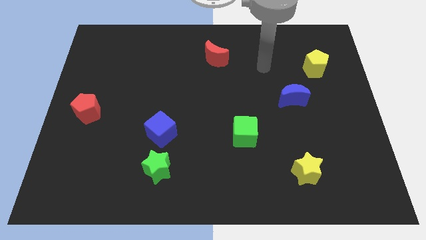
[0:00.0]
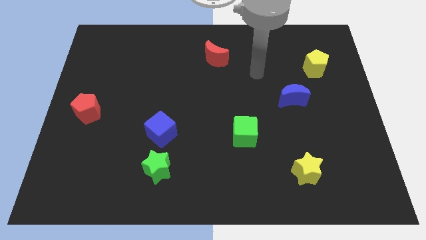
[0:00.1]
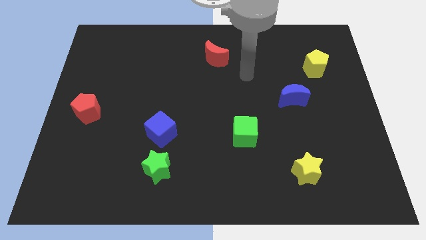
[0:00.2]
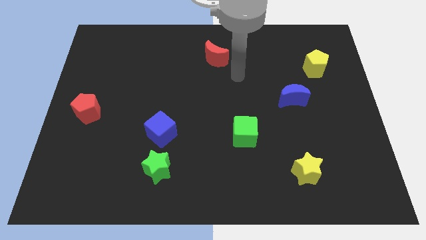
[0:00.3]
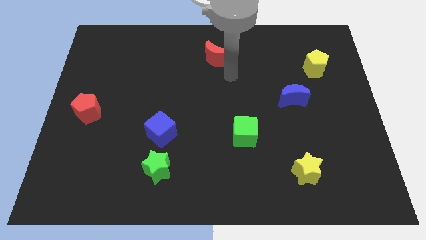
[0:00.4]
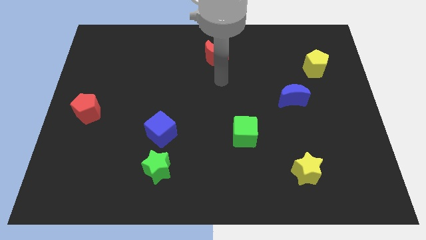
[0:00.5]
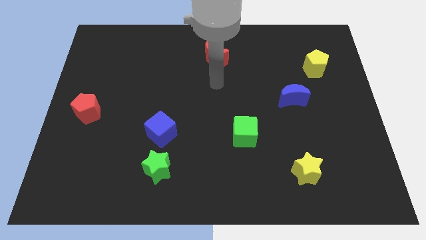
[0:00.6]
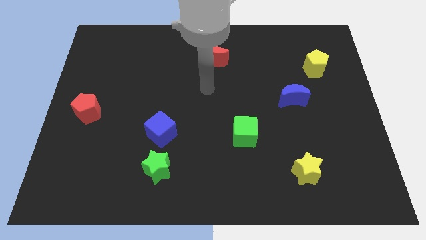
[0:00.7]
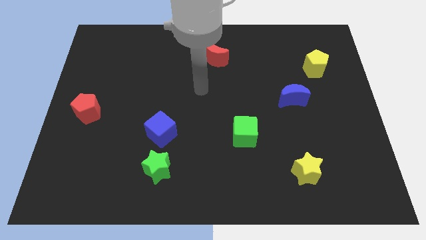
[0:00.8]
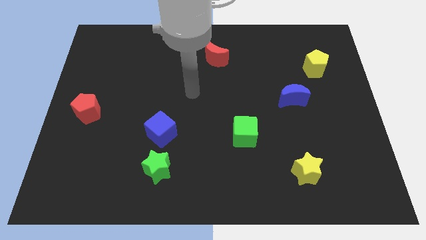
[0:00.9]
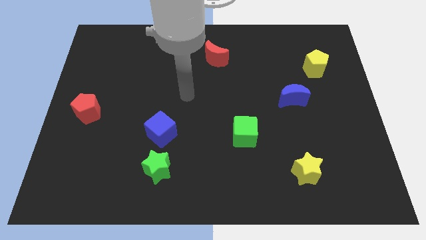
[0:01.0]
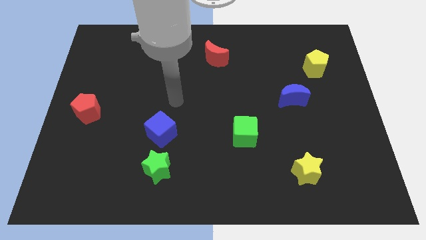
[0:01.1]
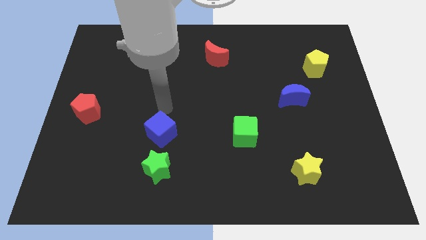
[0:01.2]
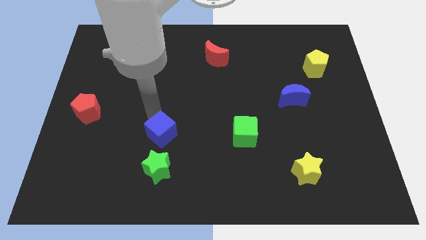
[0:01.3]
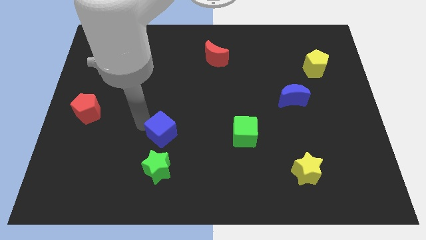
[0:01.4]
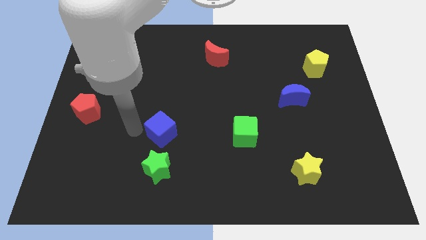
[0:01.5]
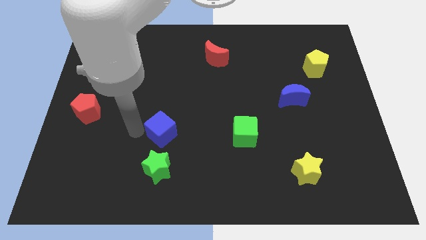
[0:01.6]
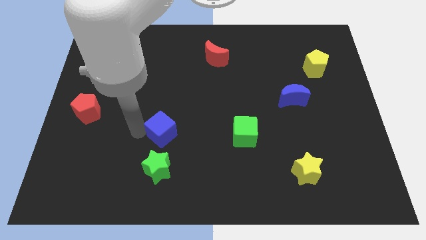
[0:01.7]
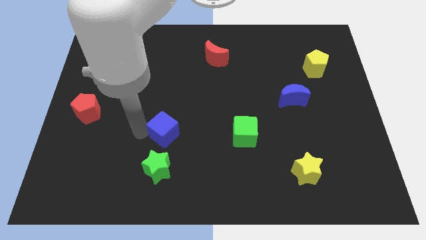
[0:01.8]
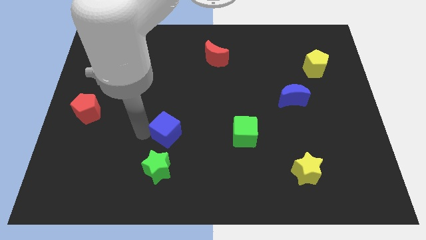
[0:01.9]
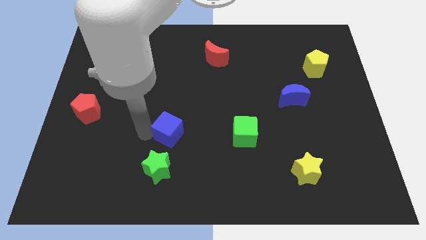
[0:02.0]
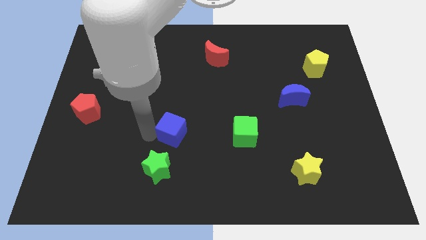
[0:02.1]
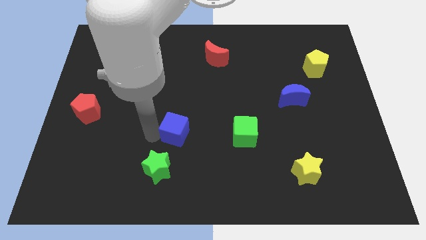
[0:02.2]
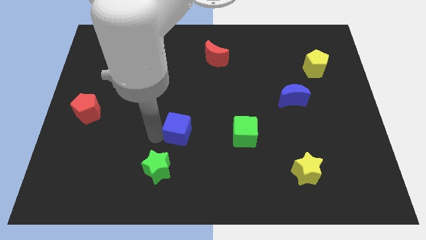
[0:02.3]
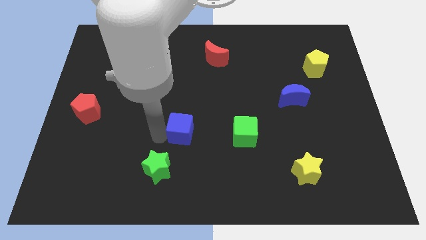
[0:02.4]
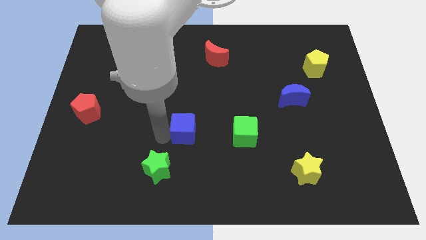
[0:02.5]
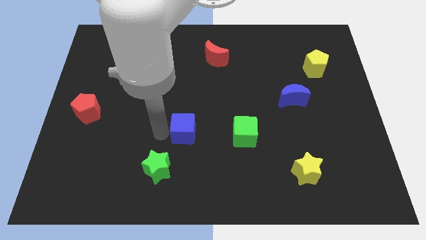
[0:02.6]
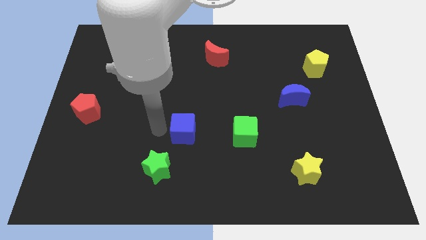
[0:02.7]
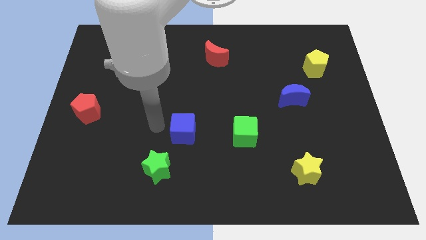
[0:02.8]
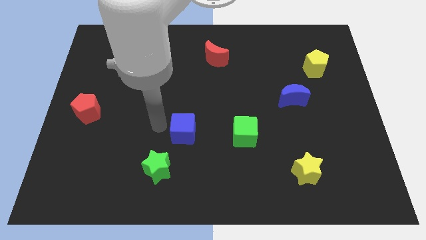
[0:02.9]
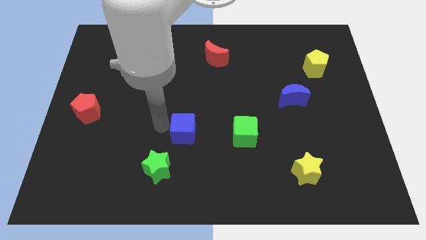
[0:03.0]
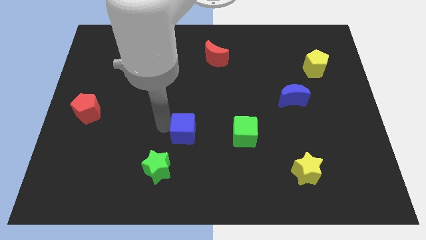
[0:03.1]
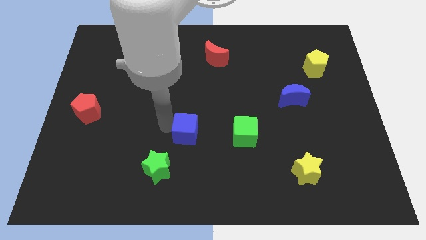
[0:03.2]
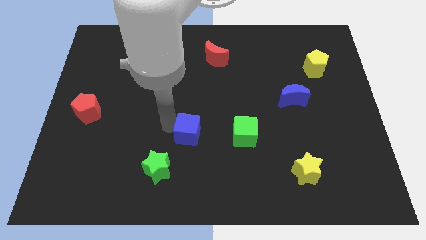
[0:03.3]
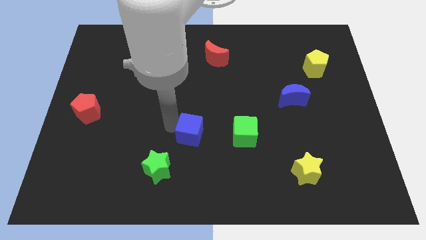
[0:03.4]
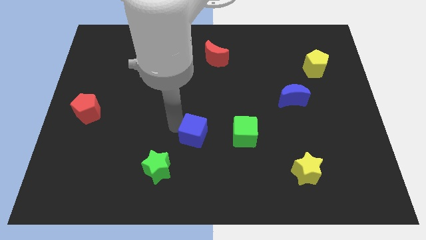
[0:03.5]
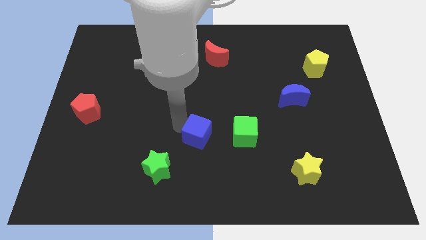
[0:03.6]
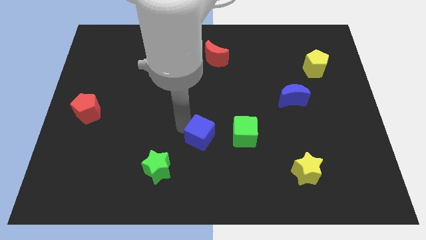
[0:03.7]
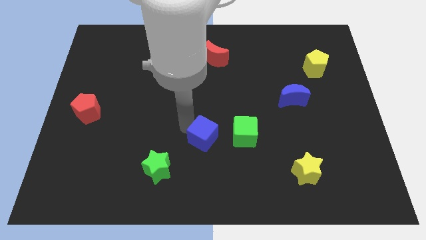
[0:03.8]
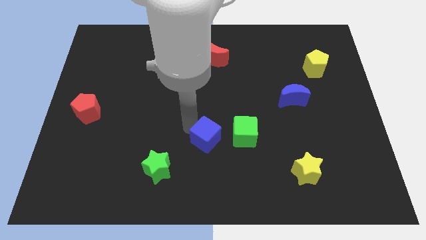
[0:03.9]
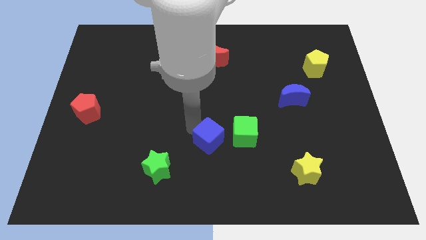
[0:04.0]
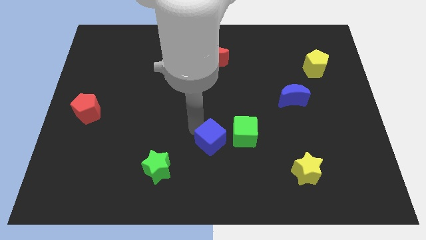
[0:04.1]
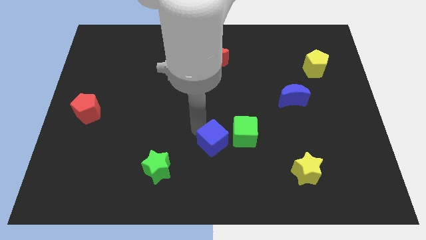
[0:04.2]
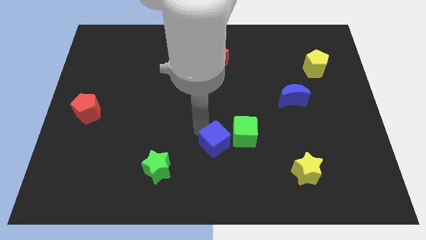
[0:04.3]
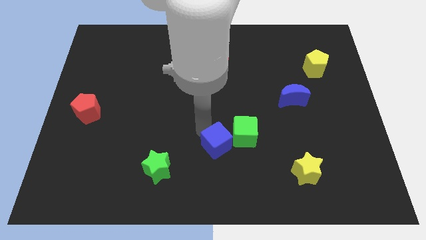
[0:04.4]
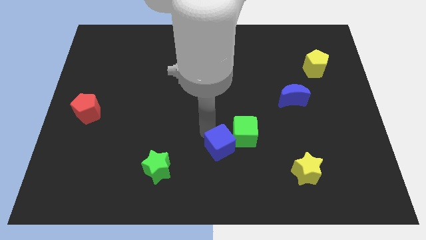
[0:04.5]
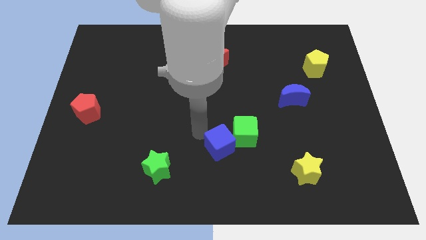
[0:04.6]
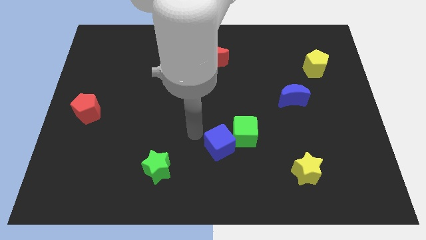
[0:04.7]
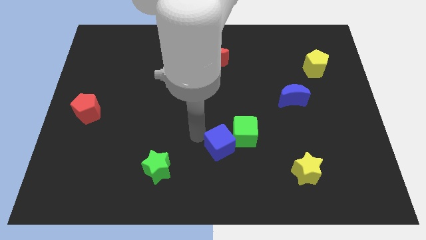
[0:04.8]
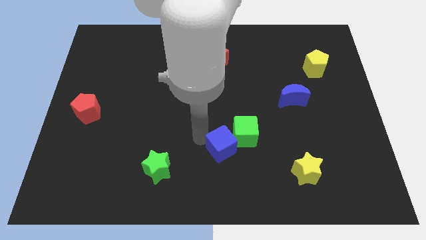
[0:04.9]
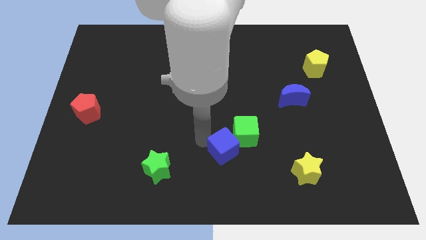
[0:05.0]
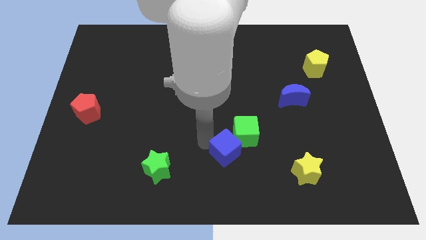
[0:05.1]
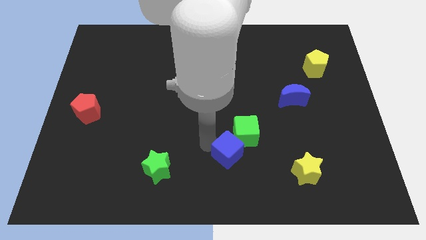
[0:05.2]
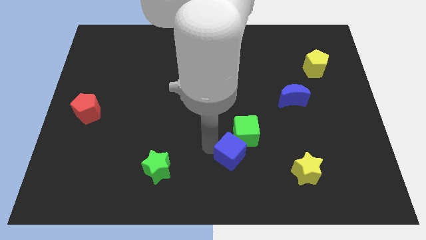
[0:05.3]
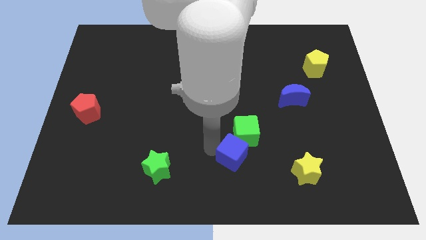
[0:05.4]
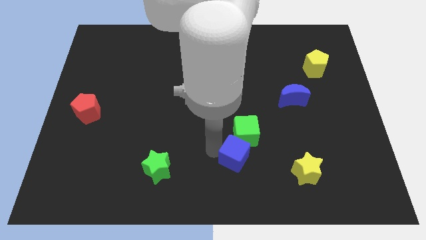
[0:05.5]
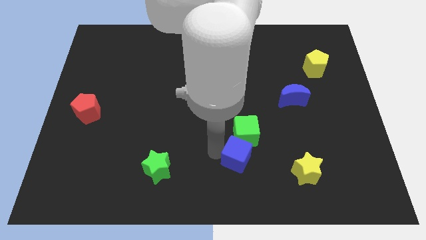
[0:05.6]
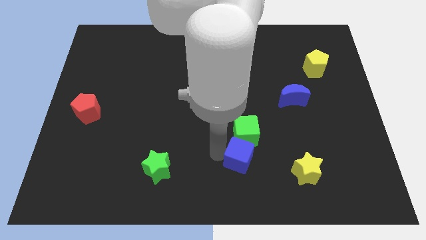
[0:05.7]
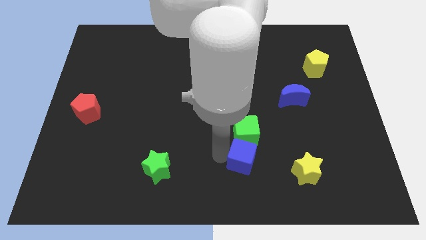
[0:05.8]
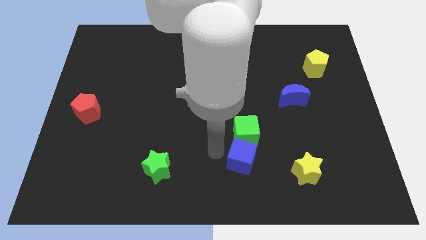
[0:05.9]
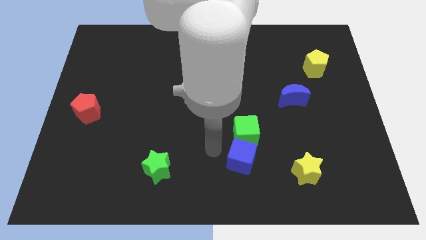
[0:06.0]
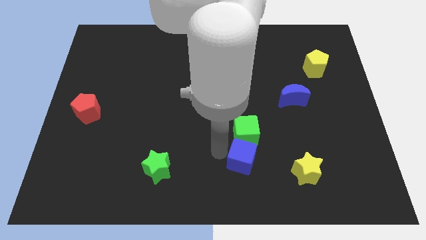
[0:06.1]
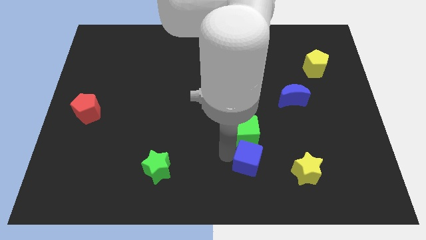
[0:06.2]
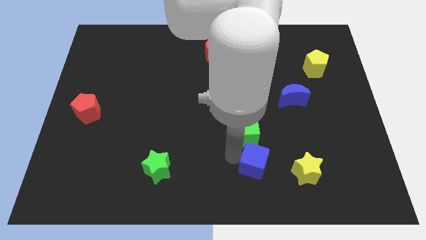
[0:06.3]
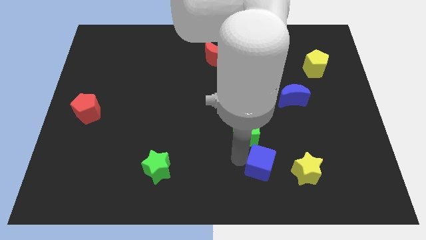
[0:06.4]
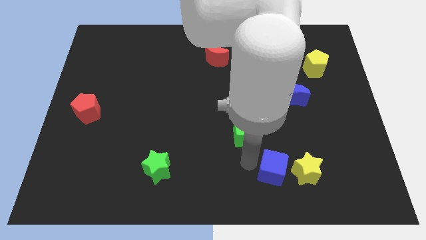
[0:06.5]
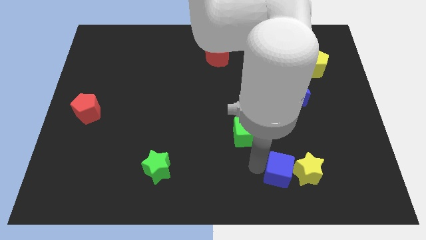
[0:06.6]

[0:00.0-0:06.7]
push the blue cube next to the yellow star

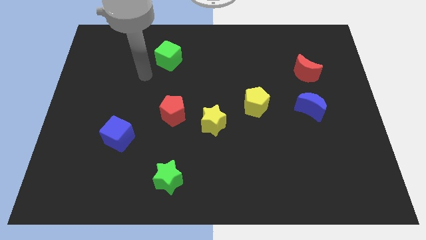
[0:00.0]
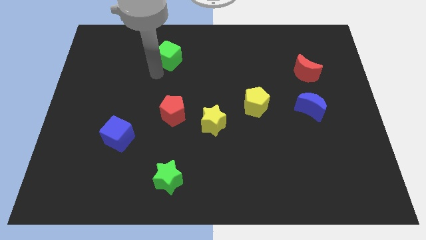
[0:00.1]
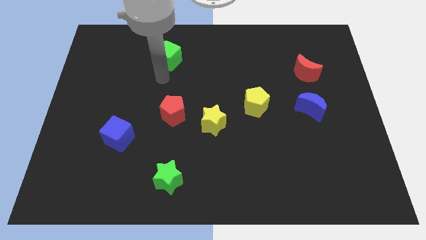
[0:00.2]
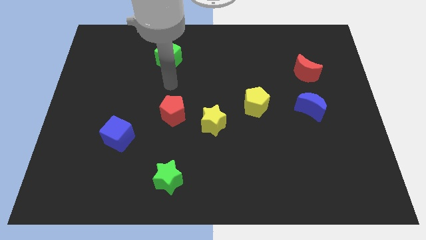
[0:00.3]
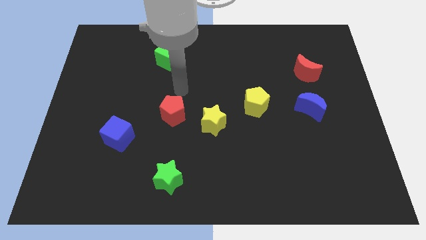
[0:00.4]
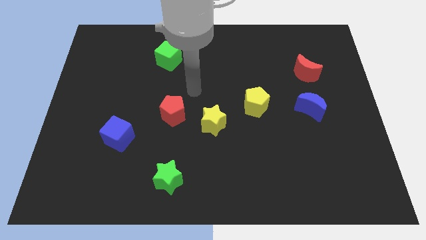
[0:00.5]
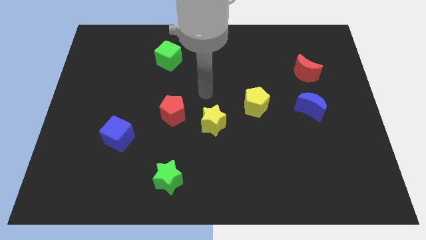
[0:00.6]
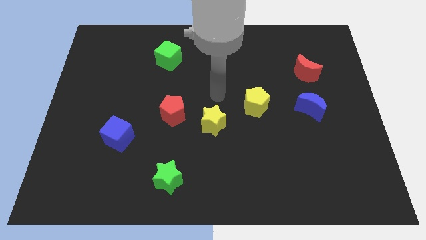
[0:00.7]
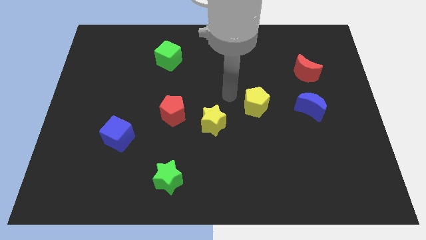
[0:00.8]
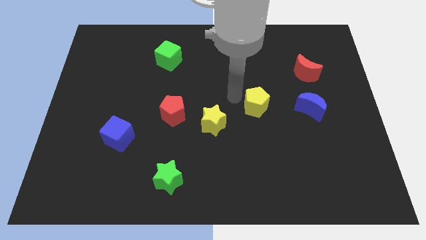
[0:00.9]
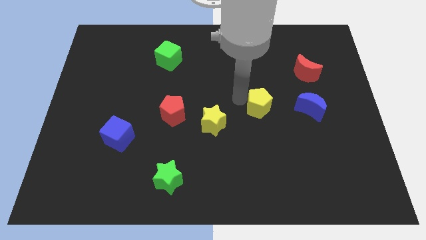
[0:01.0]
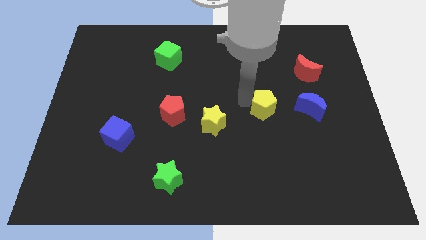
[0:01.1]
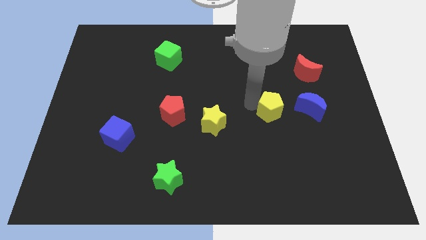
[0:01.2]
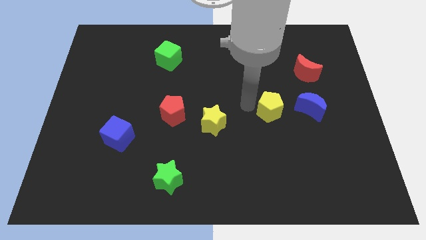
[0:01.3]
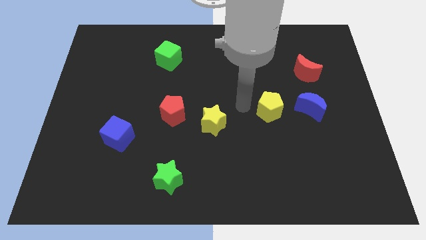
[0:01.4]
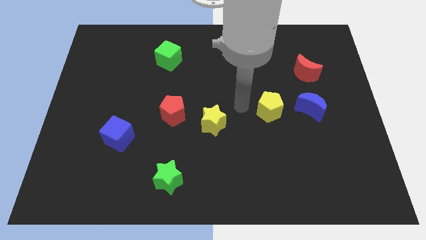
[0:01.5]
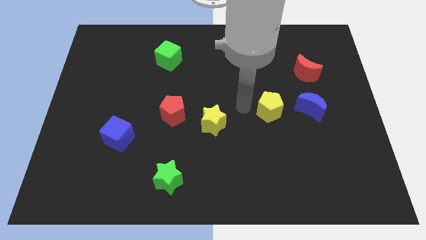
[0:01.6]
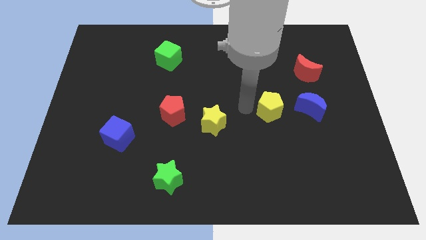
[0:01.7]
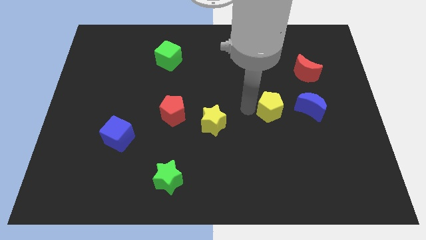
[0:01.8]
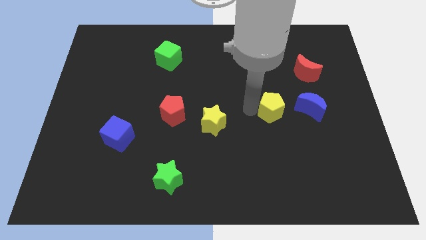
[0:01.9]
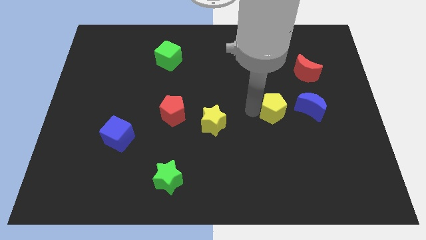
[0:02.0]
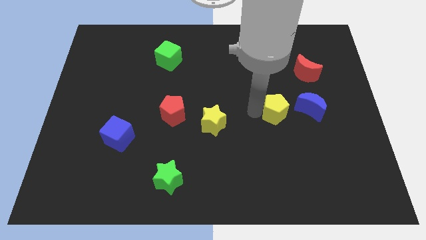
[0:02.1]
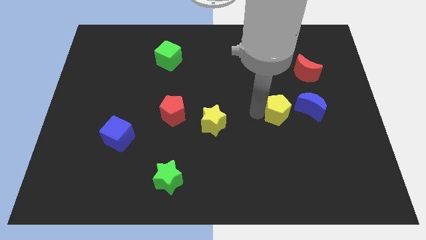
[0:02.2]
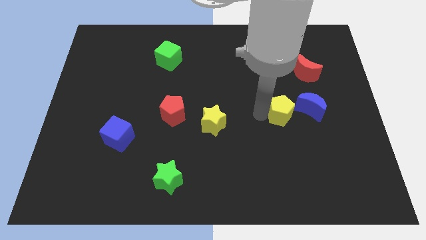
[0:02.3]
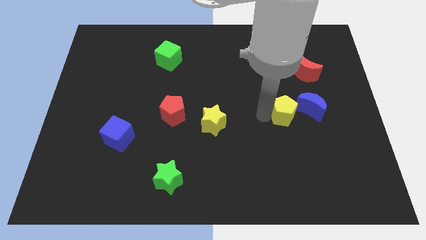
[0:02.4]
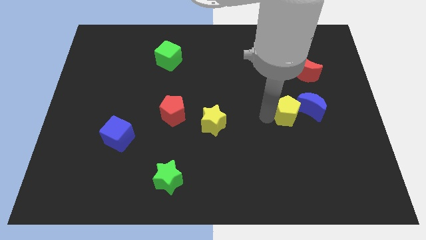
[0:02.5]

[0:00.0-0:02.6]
put the yellow pentagon close to the blue moon
